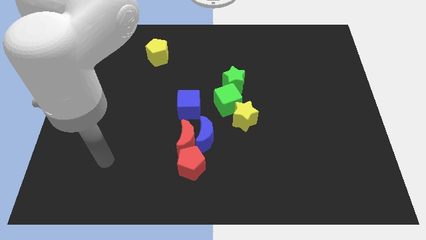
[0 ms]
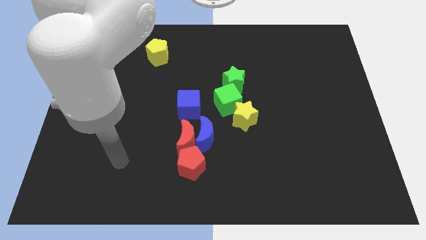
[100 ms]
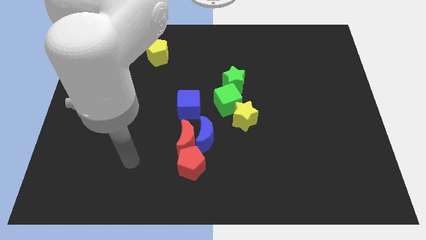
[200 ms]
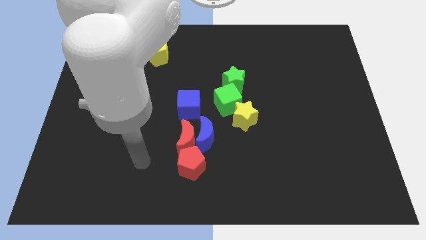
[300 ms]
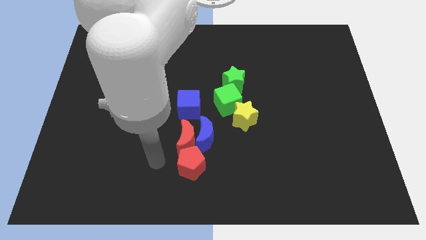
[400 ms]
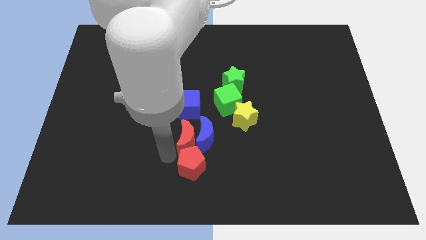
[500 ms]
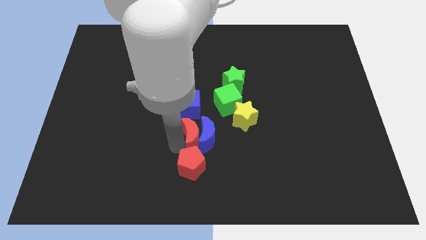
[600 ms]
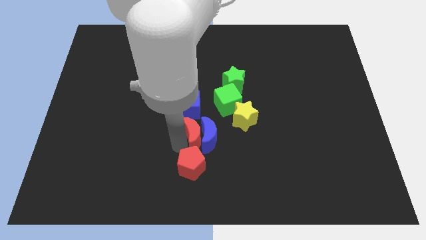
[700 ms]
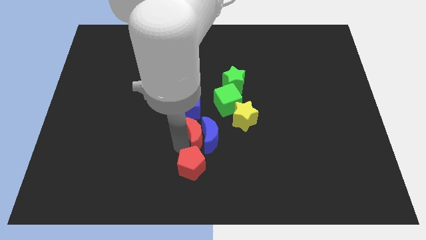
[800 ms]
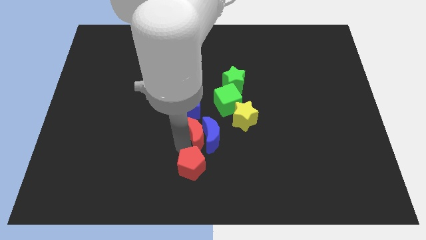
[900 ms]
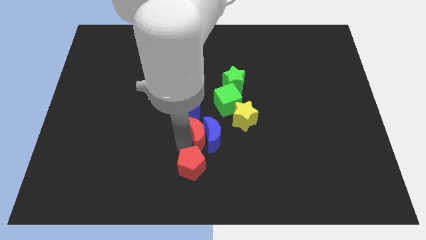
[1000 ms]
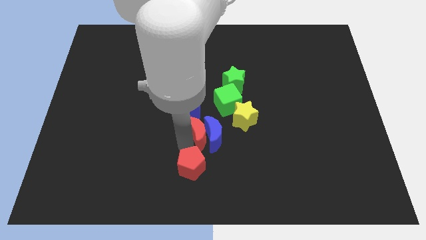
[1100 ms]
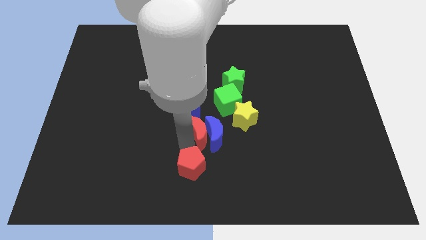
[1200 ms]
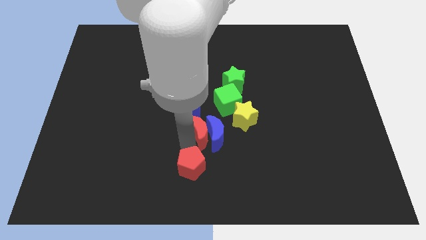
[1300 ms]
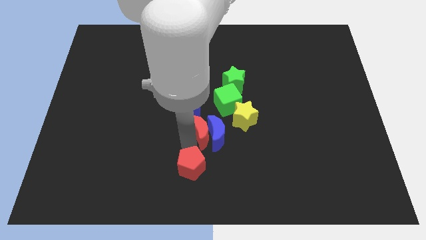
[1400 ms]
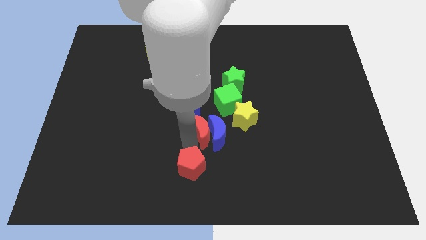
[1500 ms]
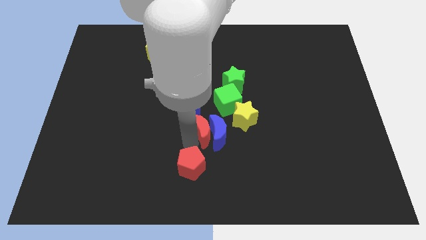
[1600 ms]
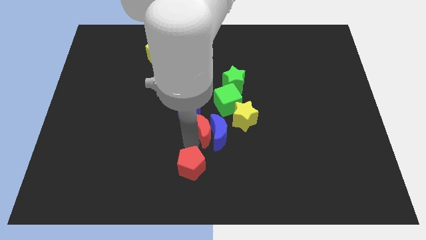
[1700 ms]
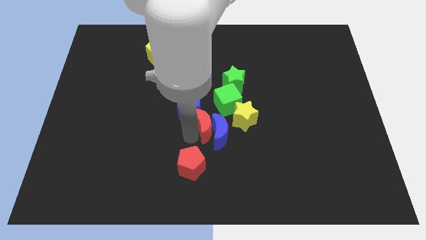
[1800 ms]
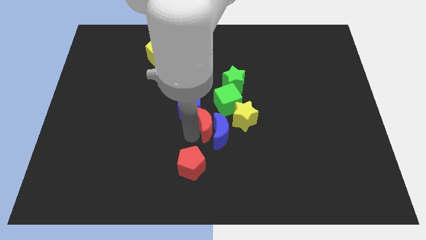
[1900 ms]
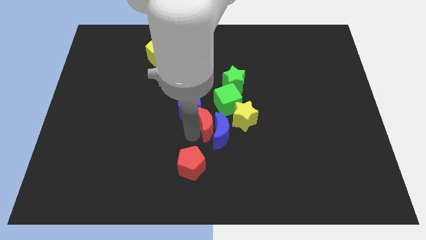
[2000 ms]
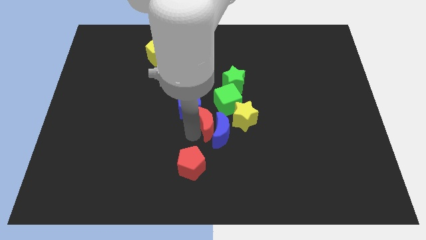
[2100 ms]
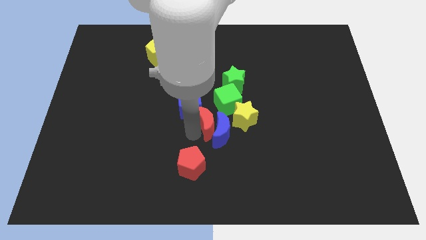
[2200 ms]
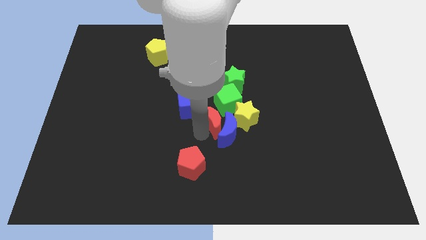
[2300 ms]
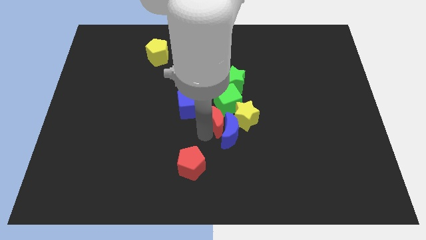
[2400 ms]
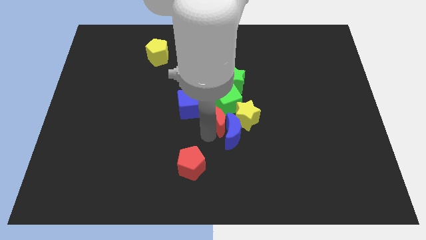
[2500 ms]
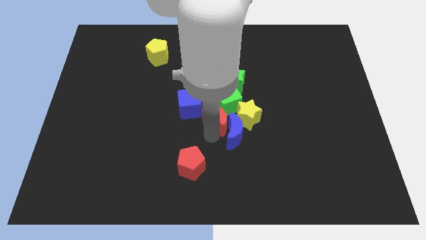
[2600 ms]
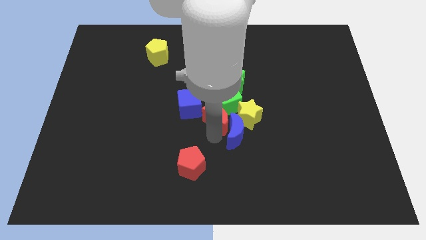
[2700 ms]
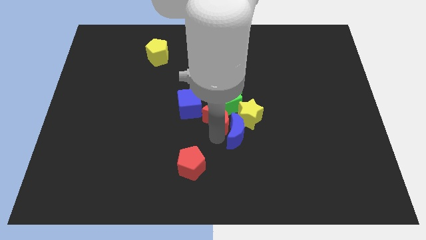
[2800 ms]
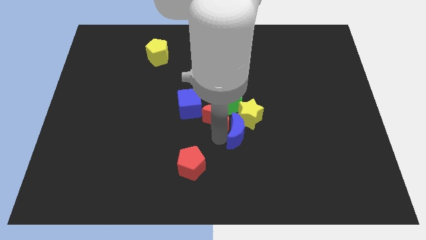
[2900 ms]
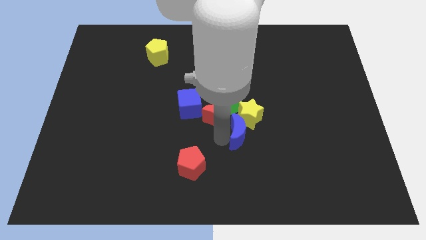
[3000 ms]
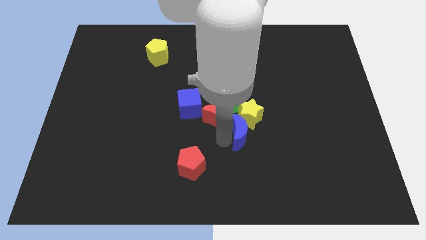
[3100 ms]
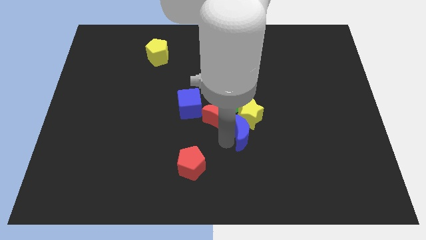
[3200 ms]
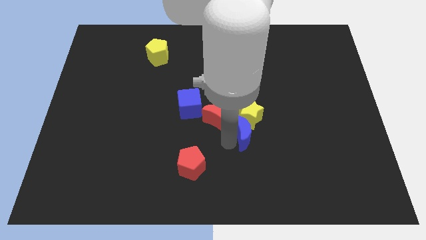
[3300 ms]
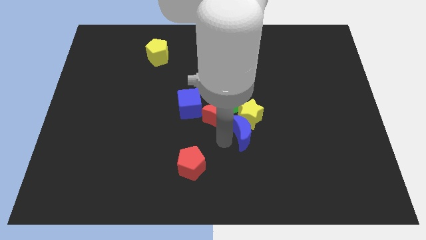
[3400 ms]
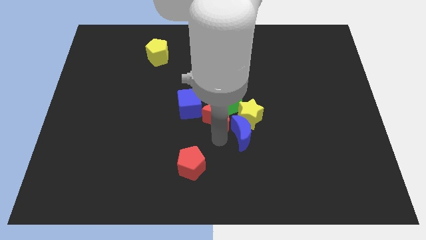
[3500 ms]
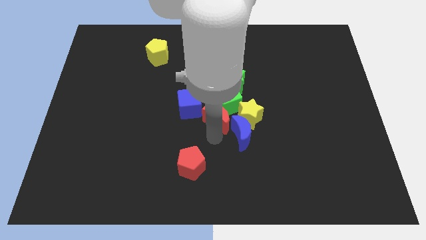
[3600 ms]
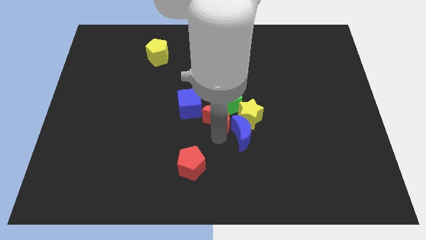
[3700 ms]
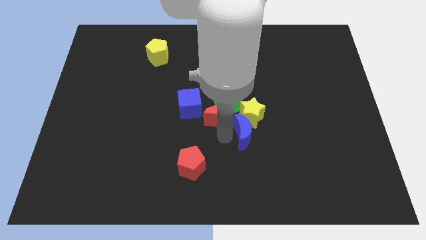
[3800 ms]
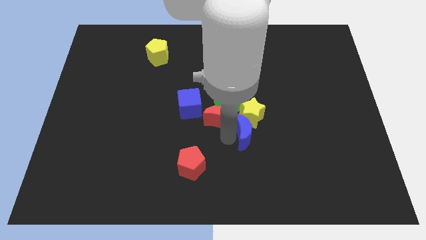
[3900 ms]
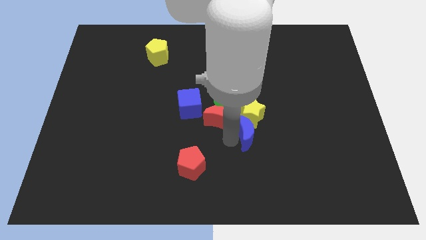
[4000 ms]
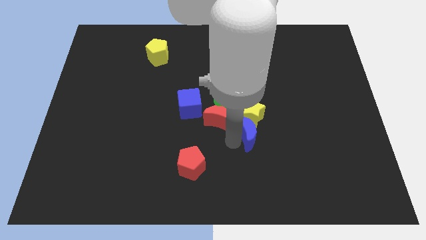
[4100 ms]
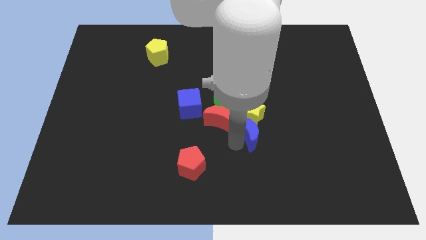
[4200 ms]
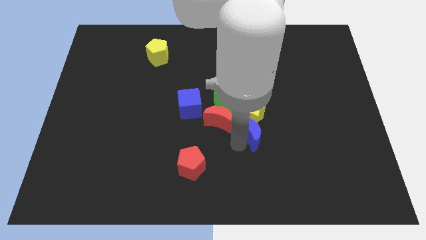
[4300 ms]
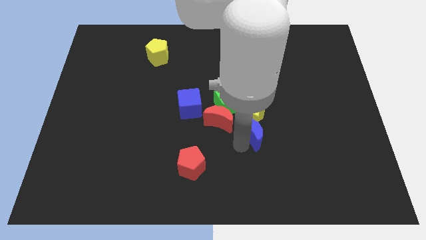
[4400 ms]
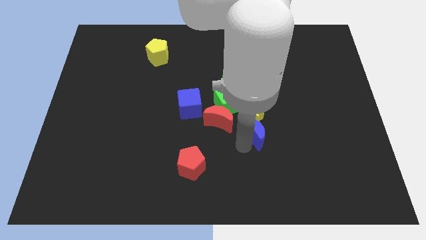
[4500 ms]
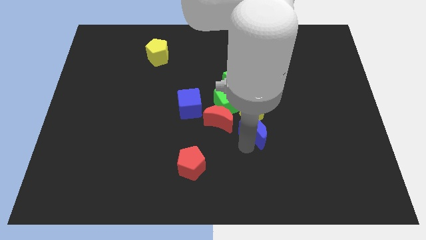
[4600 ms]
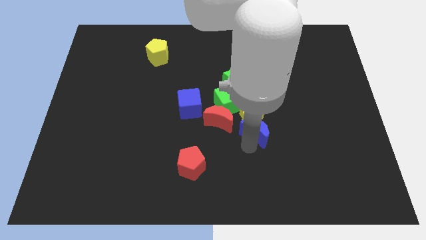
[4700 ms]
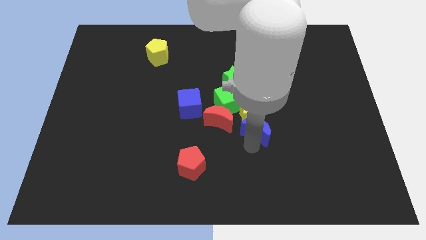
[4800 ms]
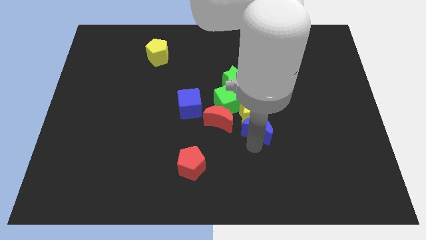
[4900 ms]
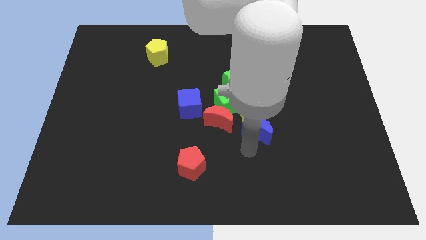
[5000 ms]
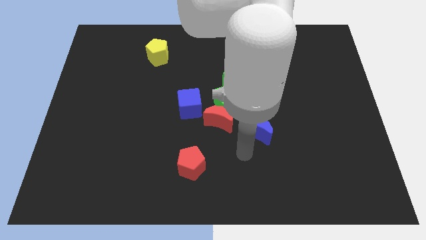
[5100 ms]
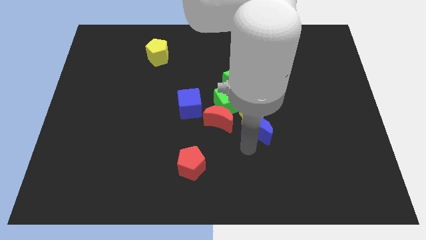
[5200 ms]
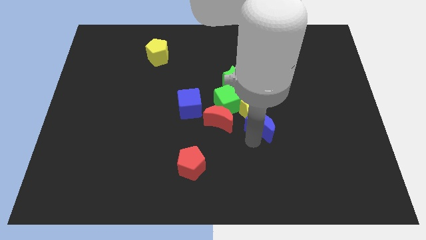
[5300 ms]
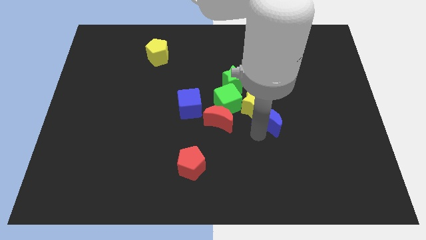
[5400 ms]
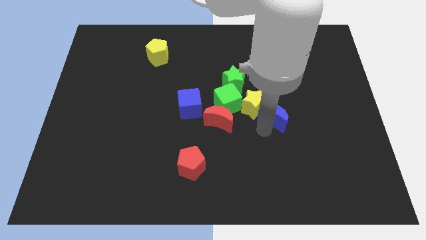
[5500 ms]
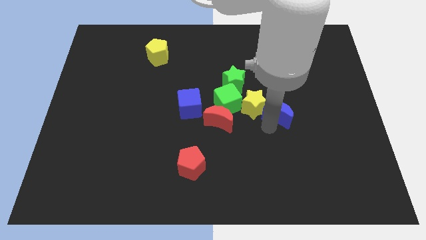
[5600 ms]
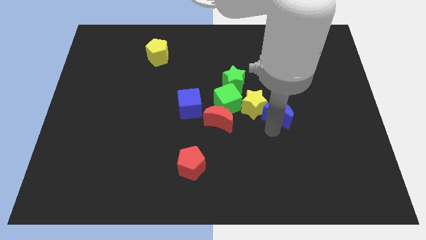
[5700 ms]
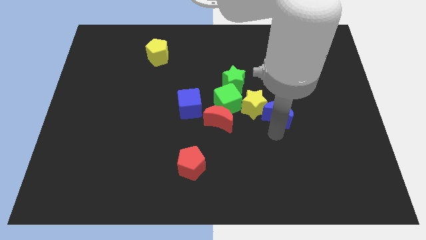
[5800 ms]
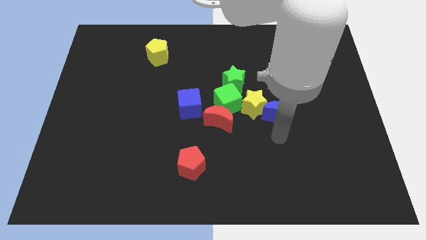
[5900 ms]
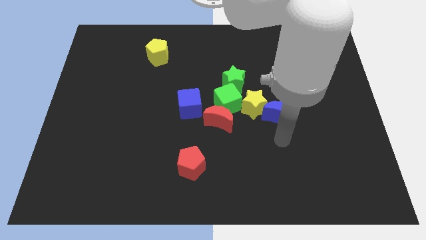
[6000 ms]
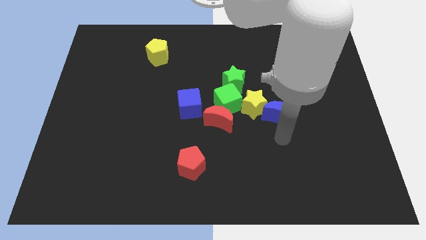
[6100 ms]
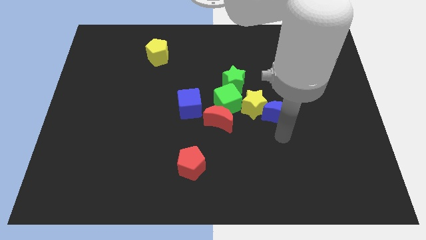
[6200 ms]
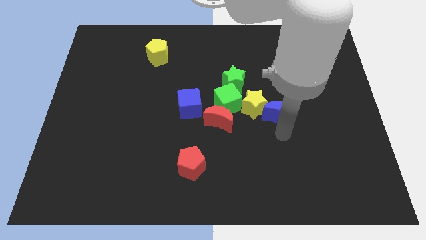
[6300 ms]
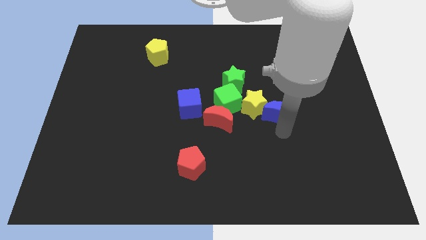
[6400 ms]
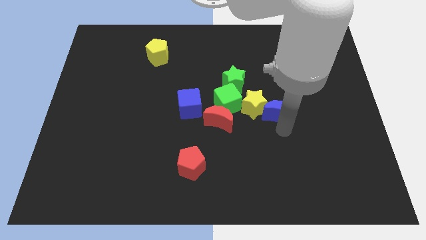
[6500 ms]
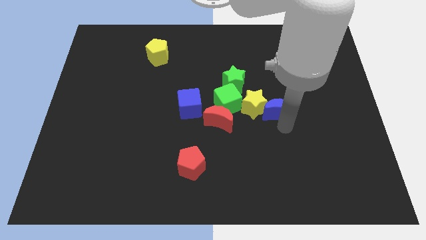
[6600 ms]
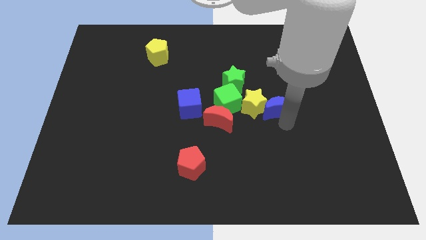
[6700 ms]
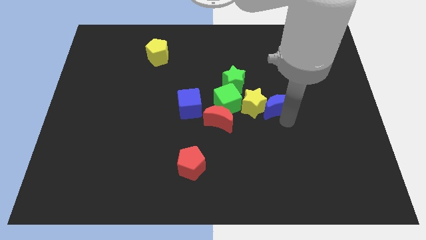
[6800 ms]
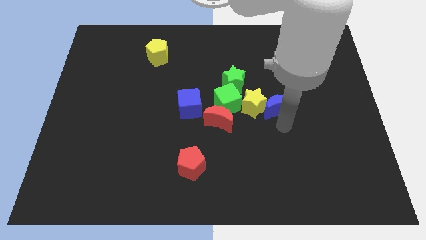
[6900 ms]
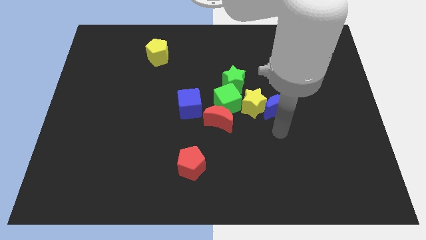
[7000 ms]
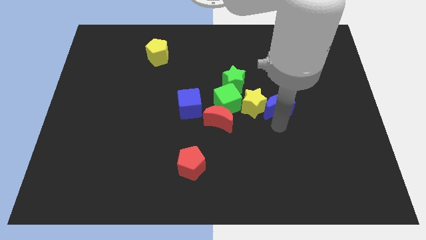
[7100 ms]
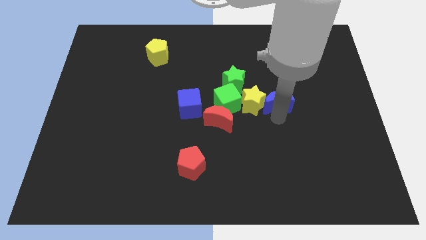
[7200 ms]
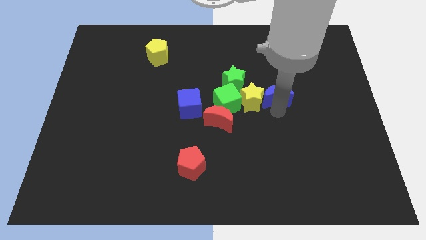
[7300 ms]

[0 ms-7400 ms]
slide the blue moon to the right side of the green star
